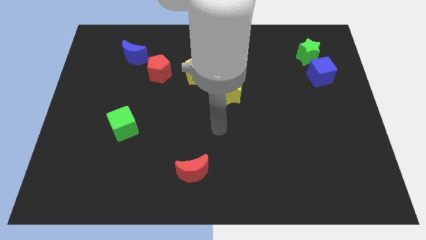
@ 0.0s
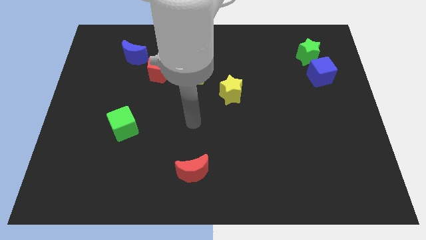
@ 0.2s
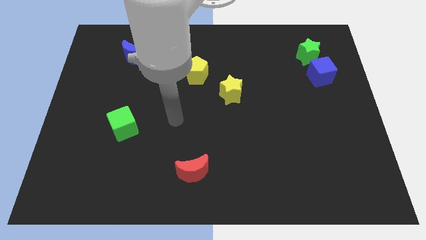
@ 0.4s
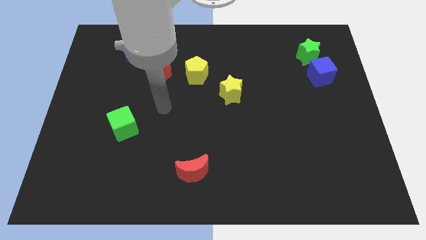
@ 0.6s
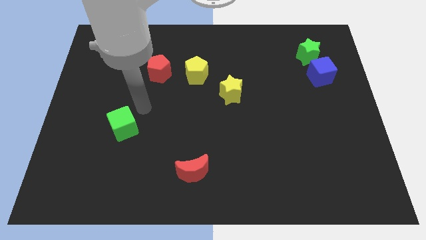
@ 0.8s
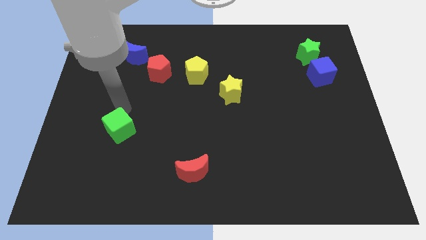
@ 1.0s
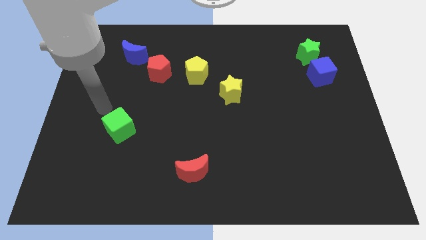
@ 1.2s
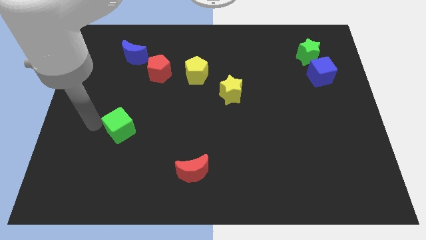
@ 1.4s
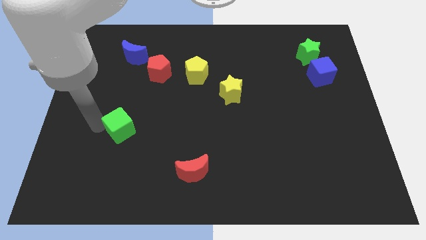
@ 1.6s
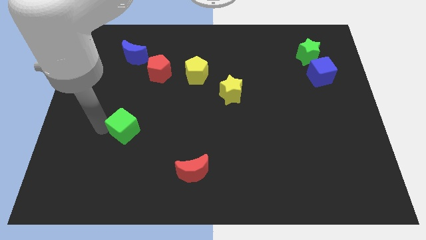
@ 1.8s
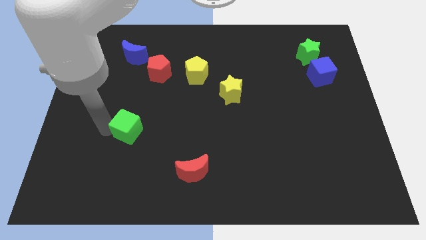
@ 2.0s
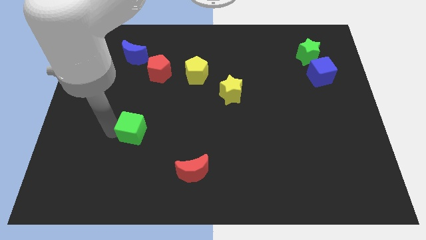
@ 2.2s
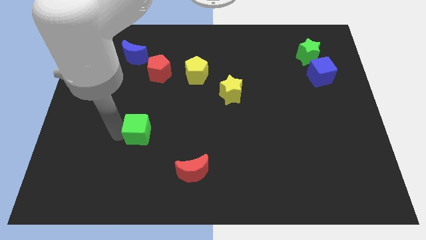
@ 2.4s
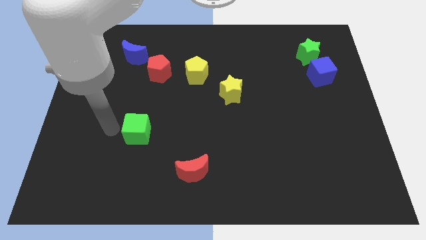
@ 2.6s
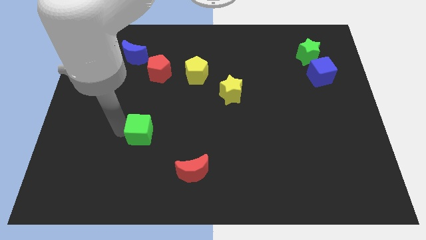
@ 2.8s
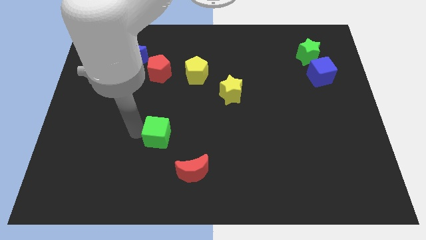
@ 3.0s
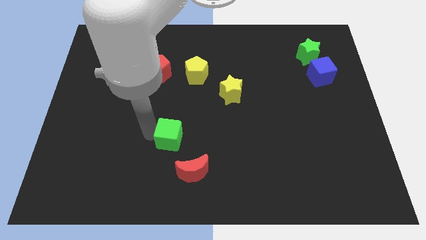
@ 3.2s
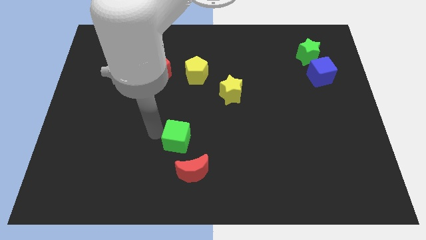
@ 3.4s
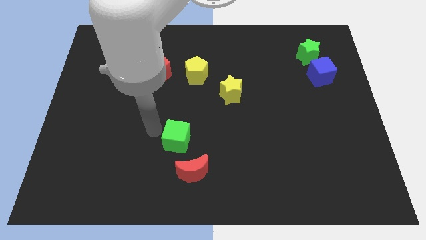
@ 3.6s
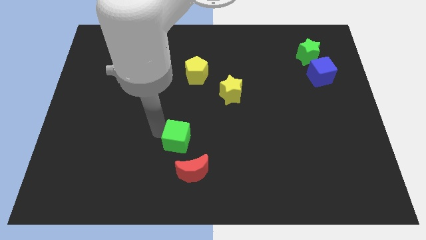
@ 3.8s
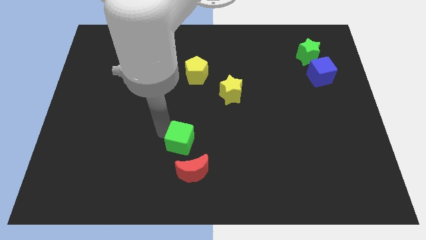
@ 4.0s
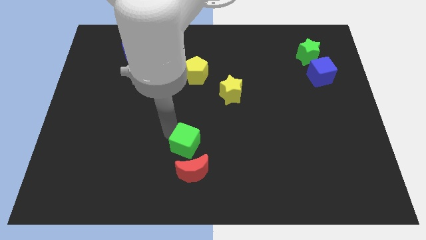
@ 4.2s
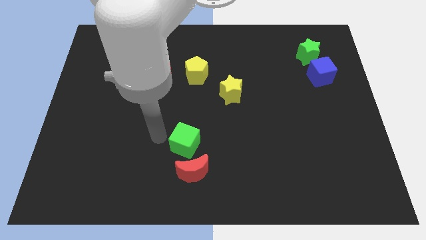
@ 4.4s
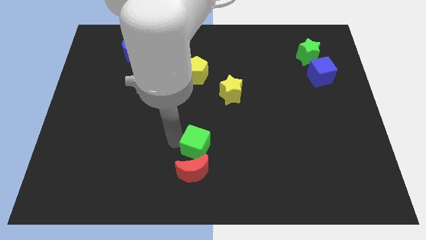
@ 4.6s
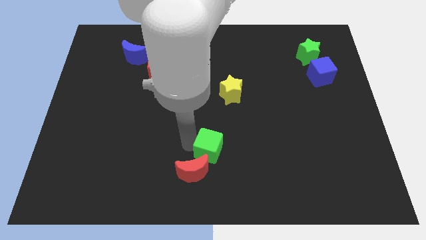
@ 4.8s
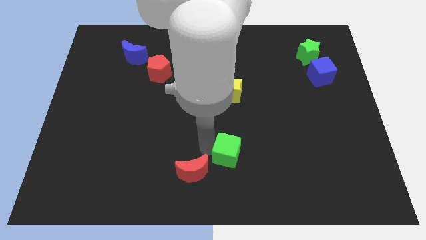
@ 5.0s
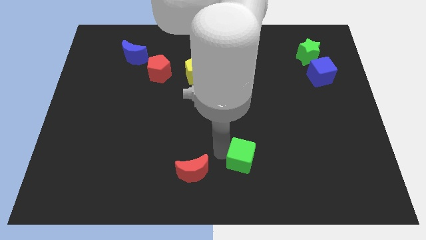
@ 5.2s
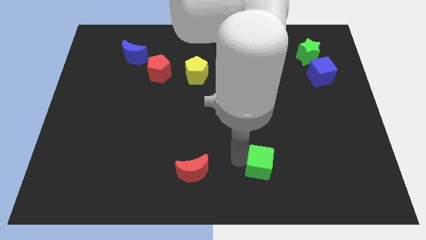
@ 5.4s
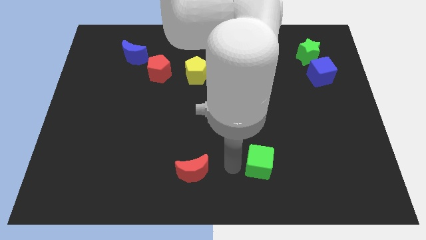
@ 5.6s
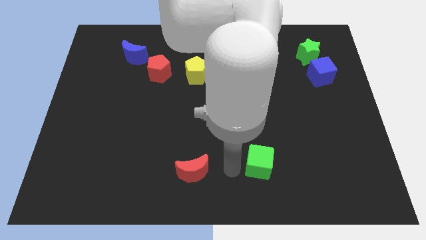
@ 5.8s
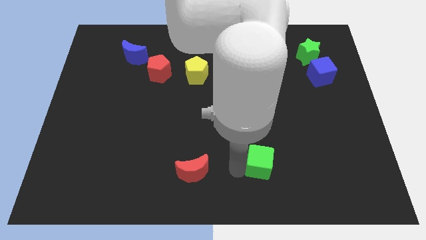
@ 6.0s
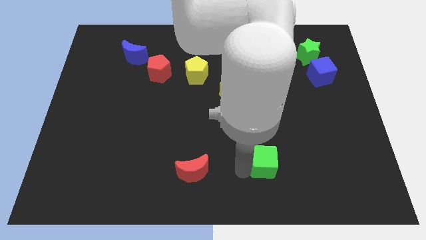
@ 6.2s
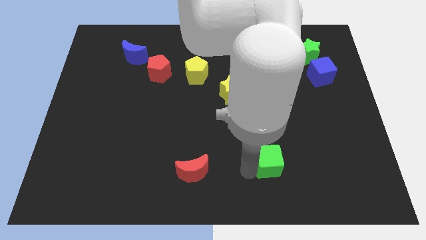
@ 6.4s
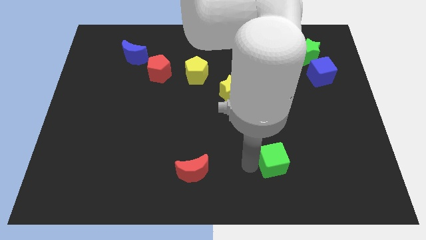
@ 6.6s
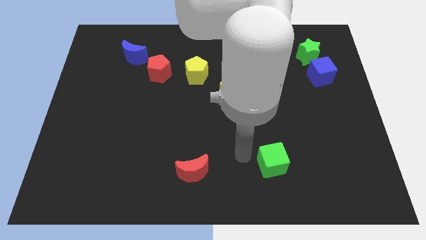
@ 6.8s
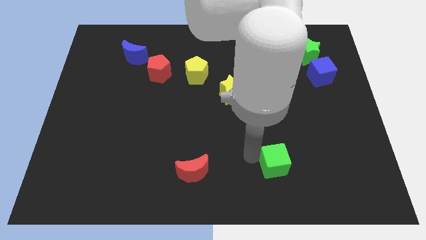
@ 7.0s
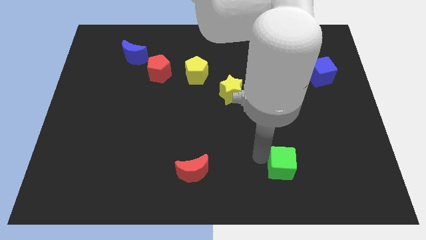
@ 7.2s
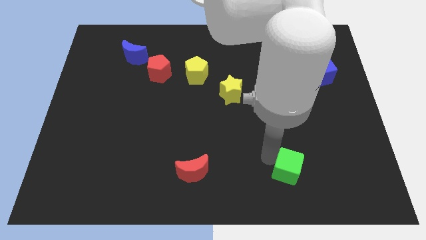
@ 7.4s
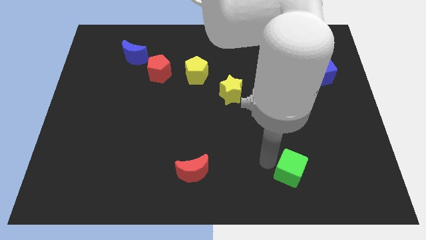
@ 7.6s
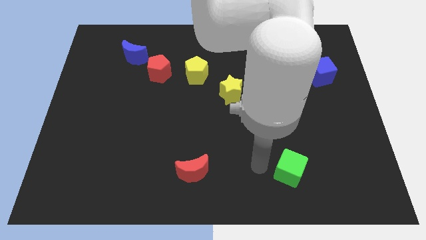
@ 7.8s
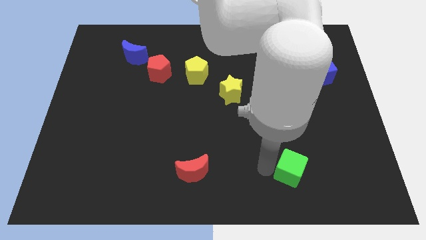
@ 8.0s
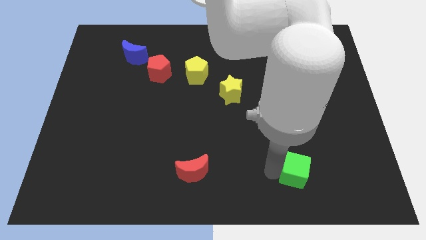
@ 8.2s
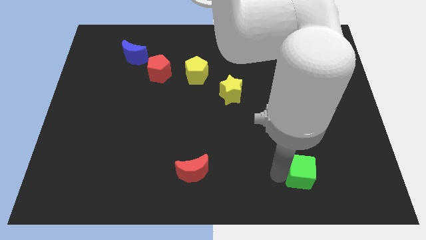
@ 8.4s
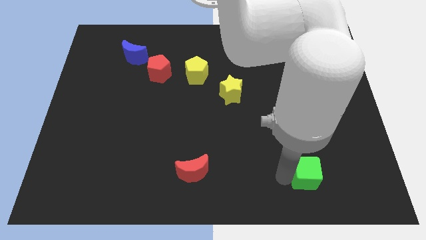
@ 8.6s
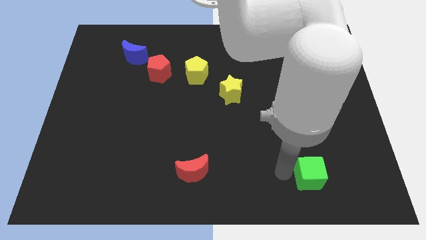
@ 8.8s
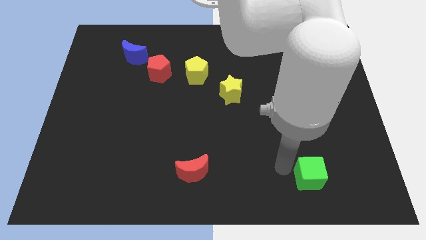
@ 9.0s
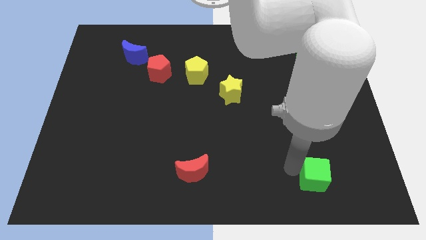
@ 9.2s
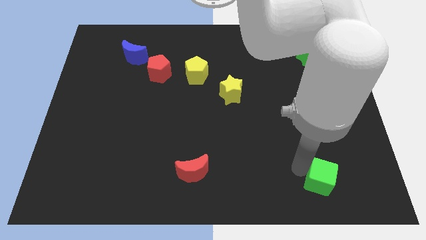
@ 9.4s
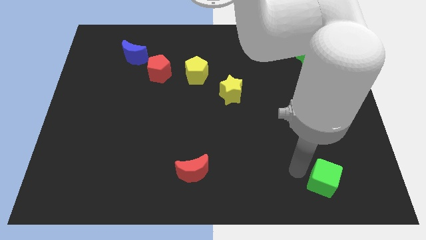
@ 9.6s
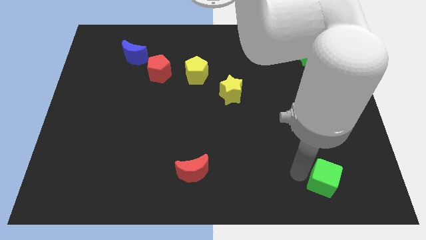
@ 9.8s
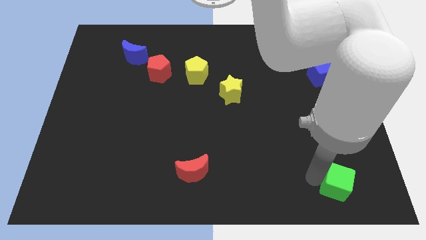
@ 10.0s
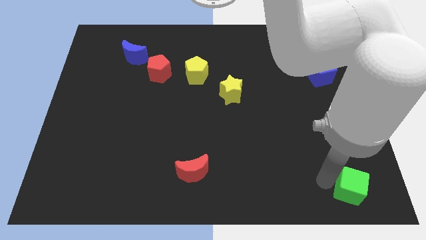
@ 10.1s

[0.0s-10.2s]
slide the green cube to the bottom right corner

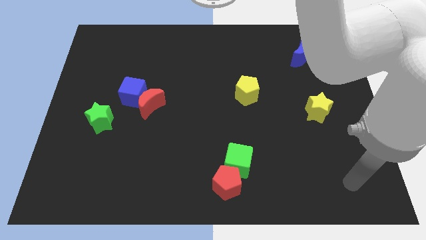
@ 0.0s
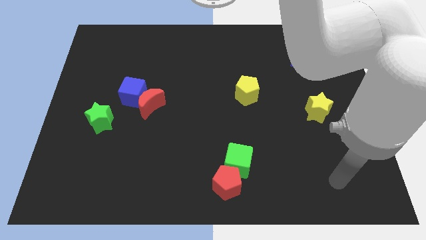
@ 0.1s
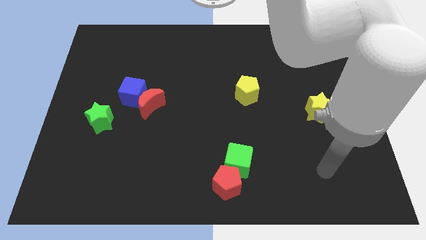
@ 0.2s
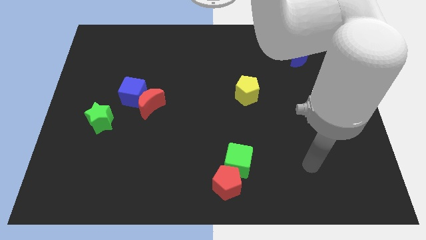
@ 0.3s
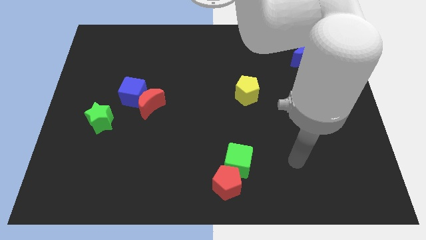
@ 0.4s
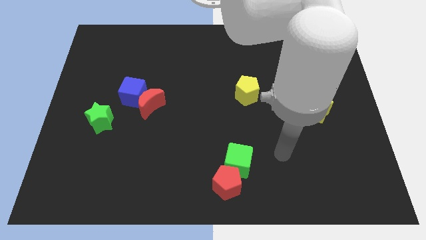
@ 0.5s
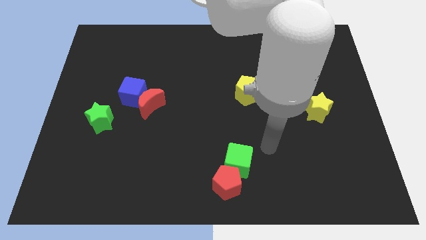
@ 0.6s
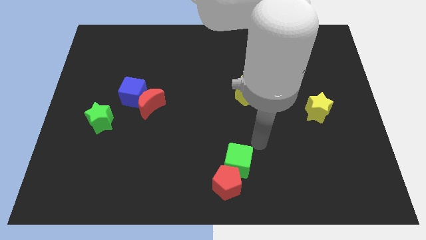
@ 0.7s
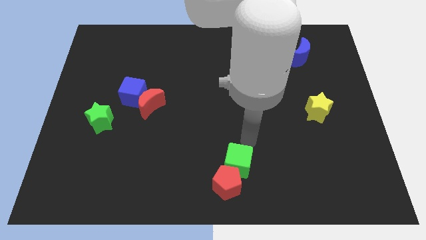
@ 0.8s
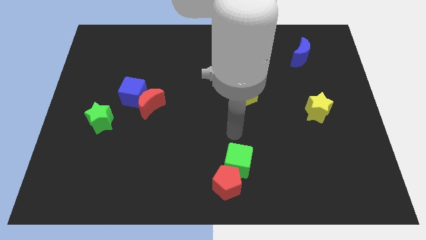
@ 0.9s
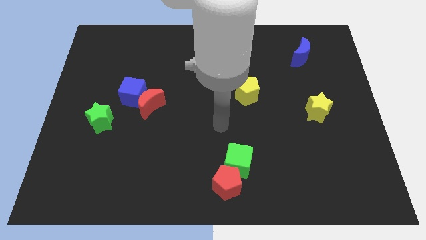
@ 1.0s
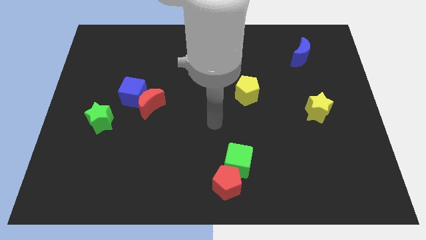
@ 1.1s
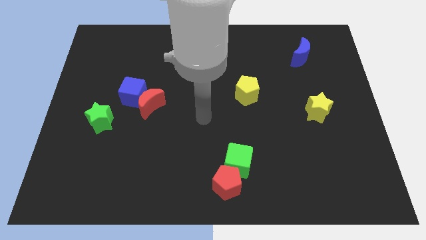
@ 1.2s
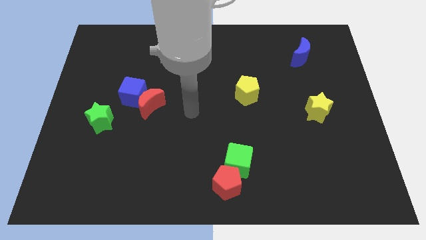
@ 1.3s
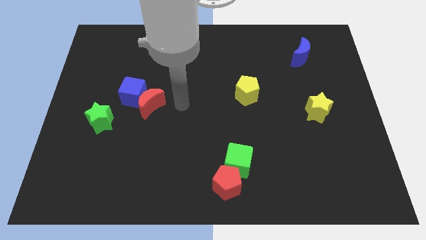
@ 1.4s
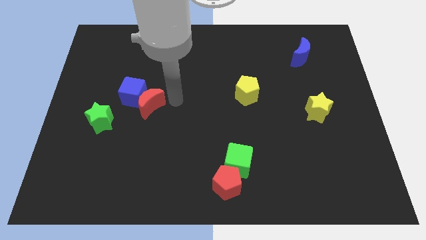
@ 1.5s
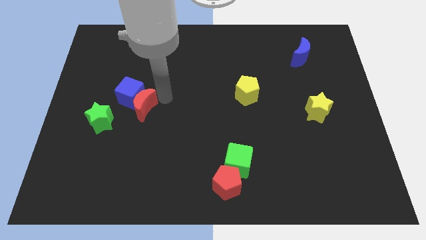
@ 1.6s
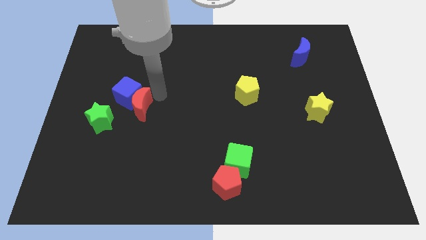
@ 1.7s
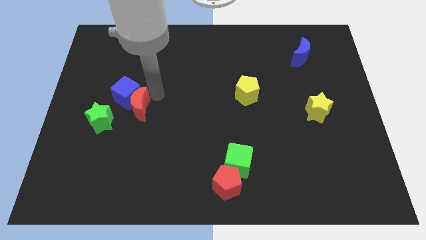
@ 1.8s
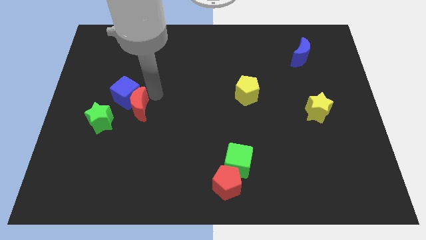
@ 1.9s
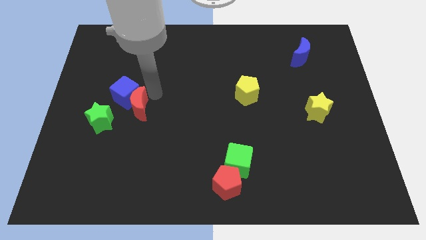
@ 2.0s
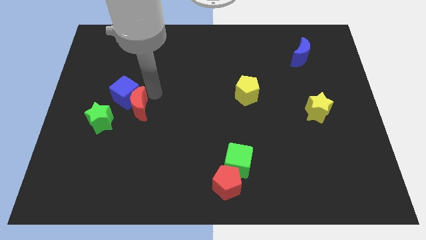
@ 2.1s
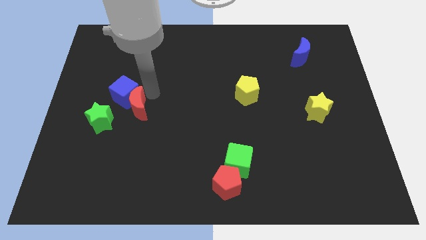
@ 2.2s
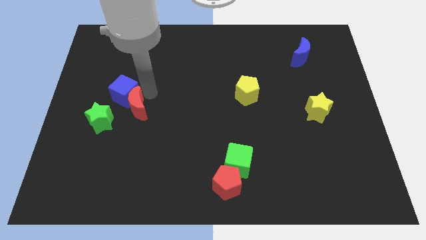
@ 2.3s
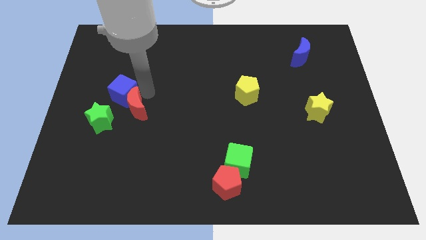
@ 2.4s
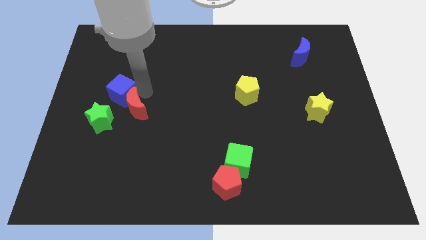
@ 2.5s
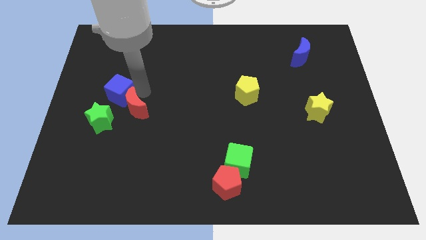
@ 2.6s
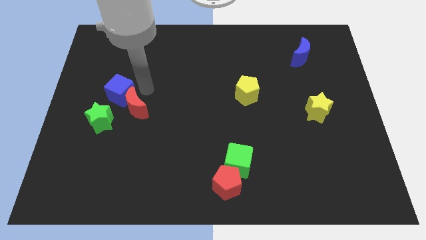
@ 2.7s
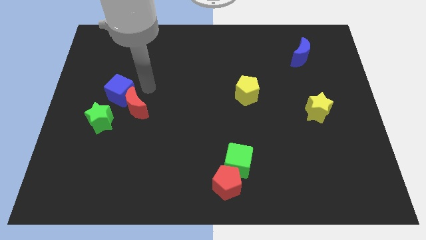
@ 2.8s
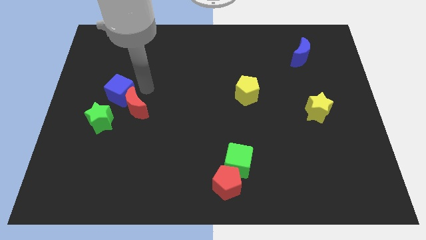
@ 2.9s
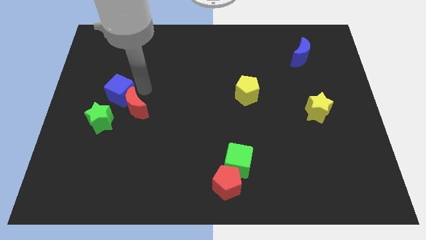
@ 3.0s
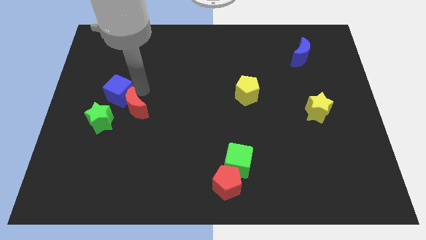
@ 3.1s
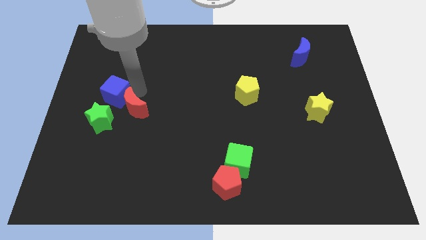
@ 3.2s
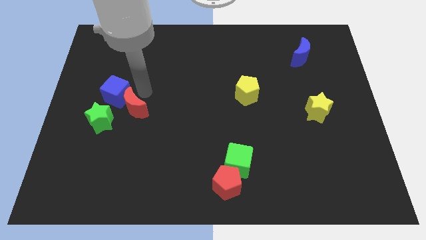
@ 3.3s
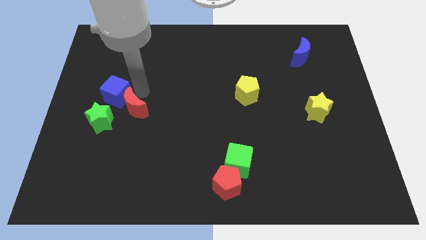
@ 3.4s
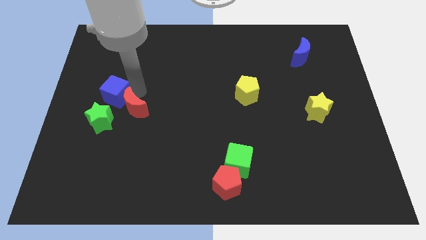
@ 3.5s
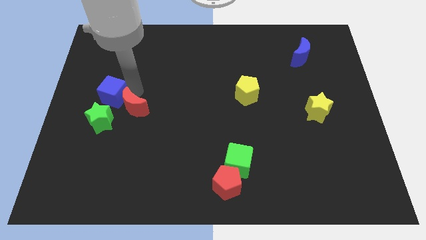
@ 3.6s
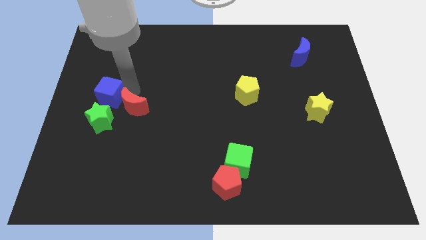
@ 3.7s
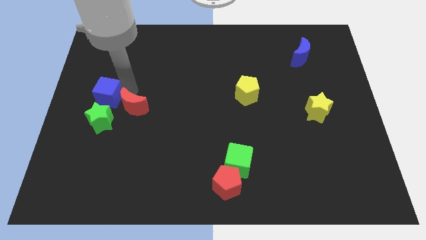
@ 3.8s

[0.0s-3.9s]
slide the blue cube to the left side of the board
